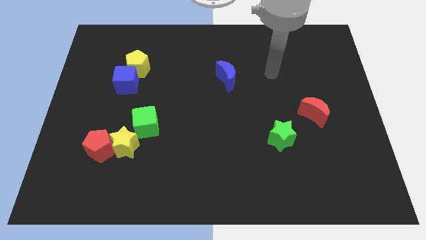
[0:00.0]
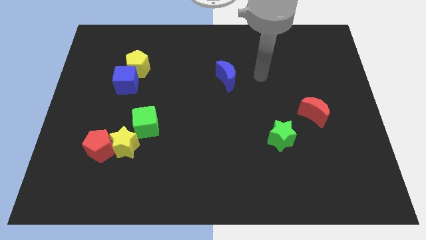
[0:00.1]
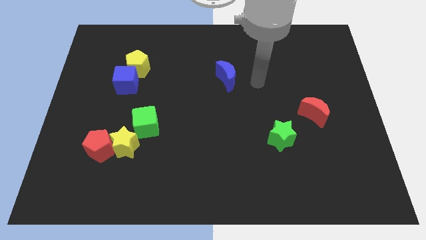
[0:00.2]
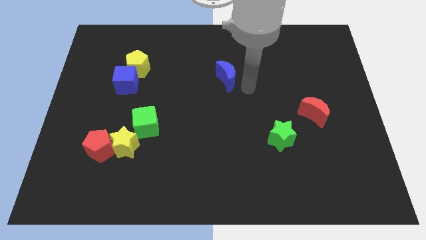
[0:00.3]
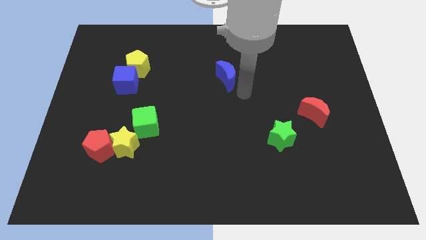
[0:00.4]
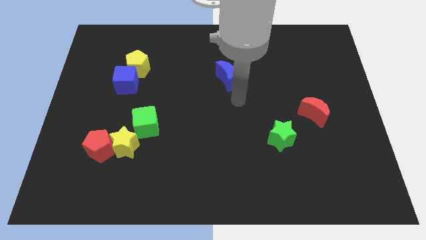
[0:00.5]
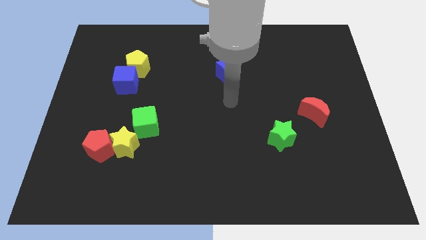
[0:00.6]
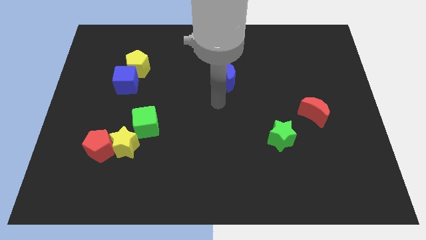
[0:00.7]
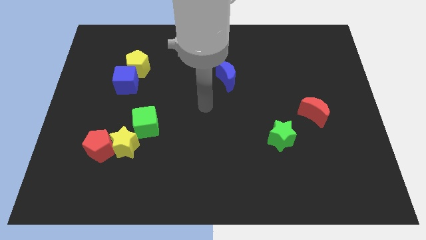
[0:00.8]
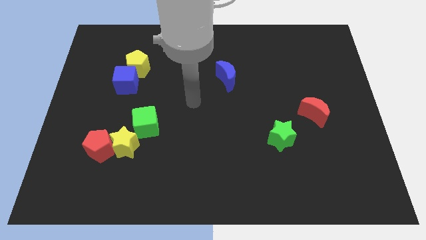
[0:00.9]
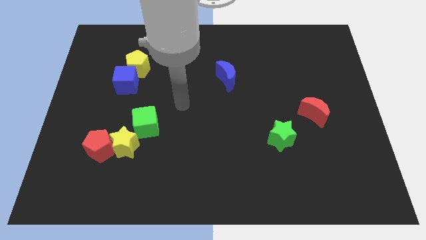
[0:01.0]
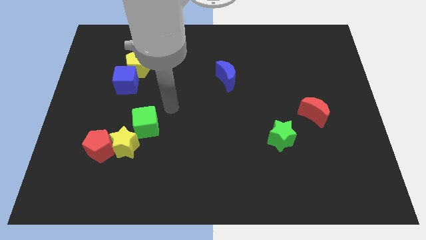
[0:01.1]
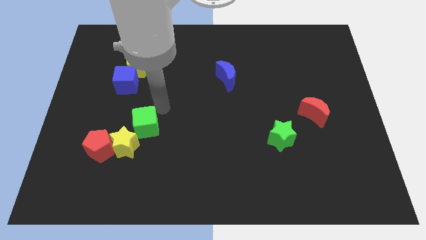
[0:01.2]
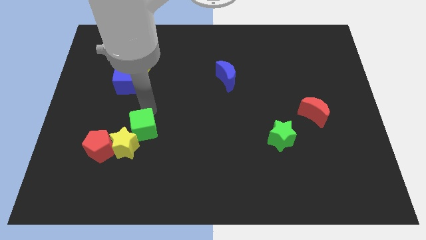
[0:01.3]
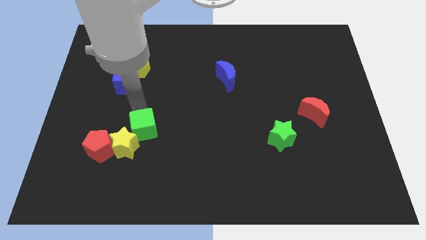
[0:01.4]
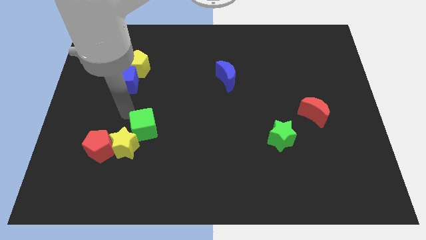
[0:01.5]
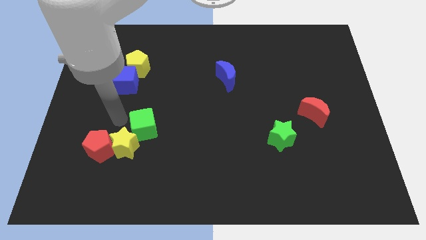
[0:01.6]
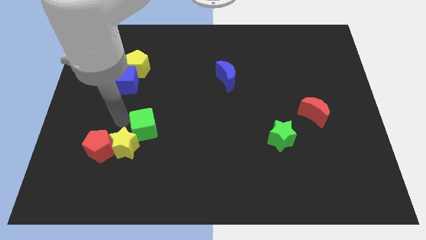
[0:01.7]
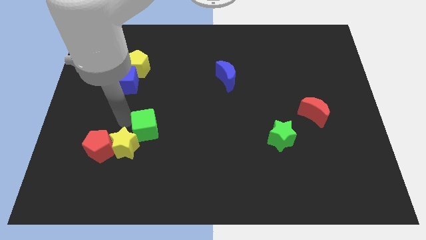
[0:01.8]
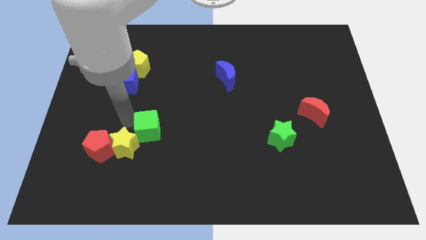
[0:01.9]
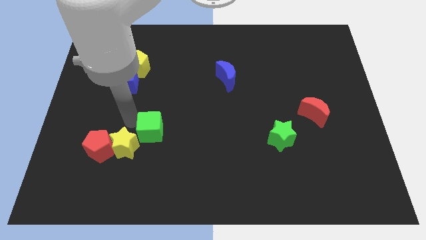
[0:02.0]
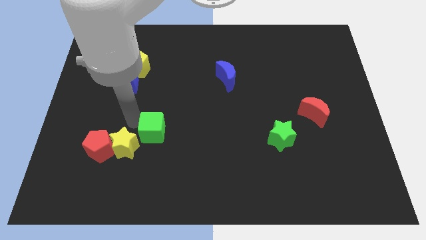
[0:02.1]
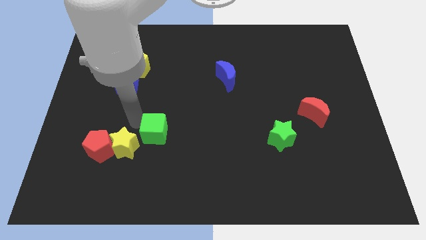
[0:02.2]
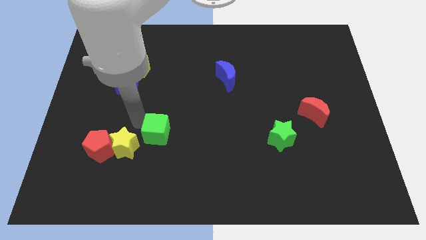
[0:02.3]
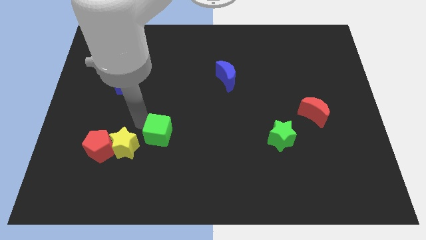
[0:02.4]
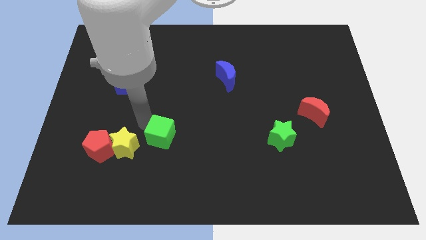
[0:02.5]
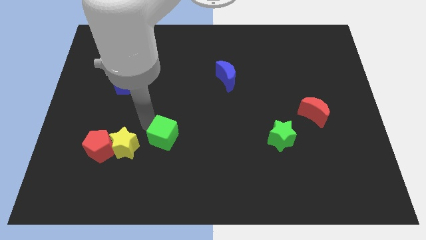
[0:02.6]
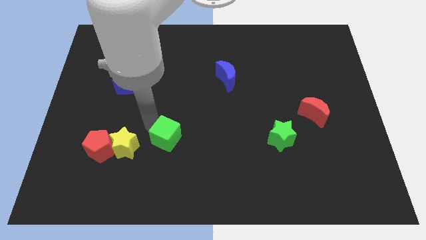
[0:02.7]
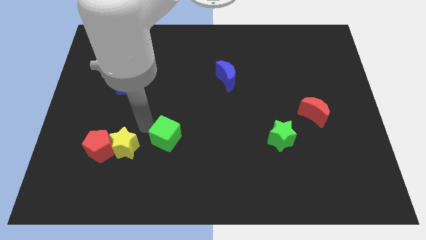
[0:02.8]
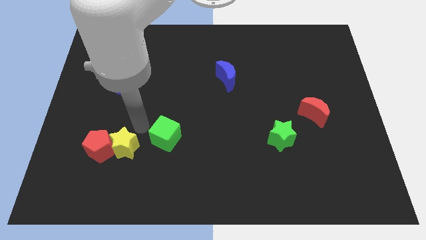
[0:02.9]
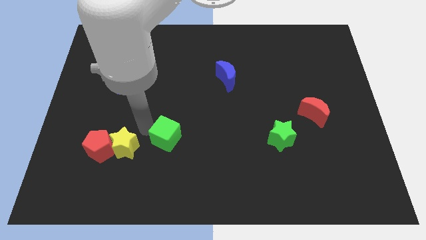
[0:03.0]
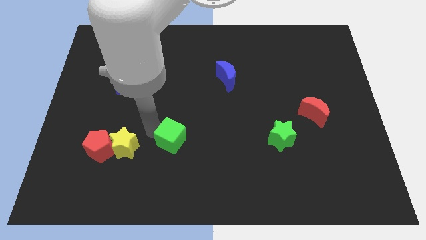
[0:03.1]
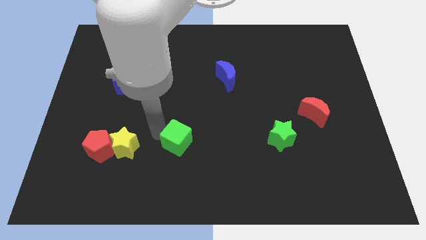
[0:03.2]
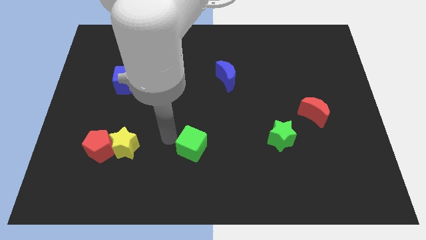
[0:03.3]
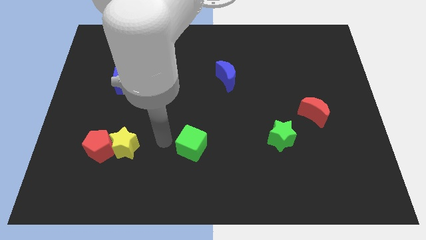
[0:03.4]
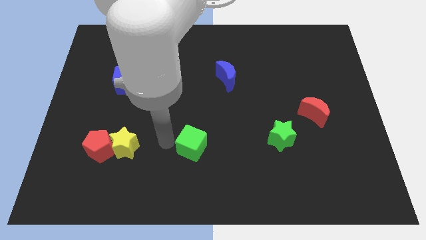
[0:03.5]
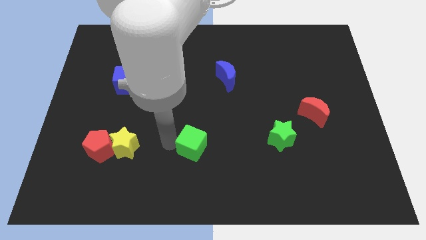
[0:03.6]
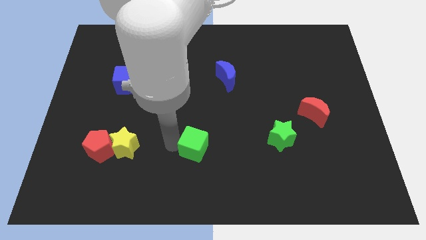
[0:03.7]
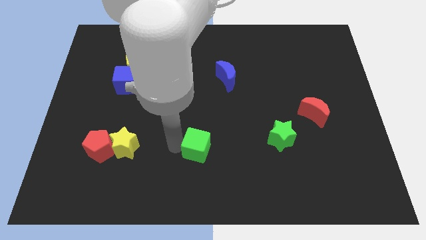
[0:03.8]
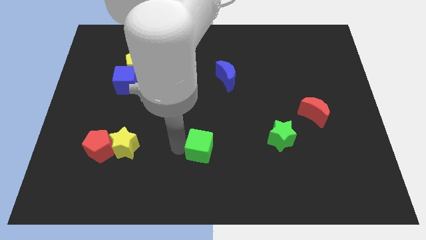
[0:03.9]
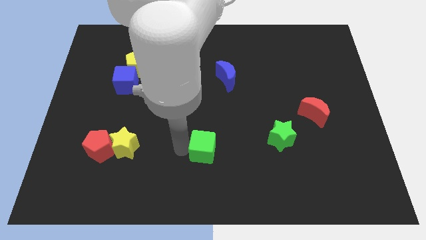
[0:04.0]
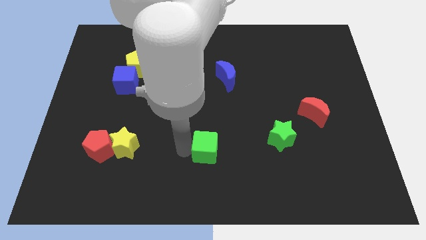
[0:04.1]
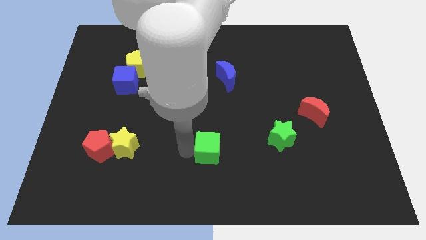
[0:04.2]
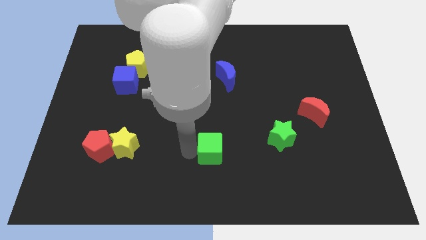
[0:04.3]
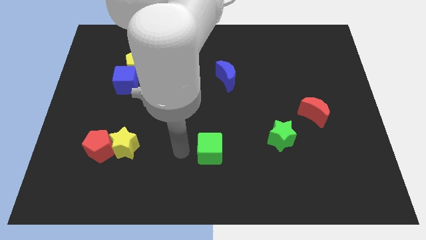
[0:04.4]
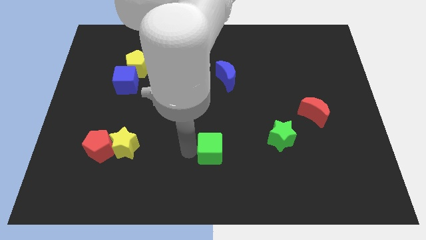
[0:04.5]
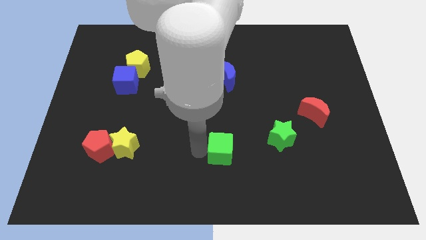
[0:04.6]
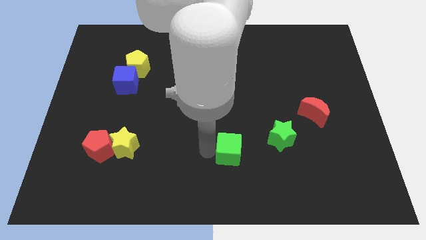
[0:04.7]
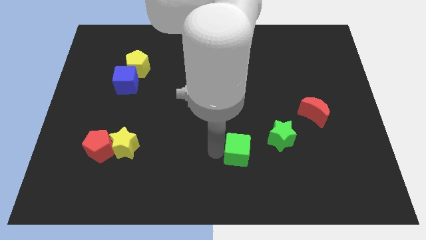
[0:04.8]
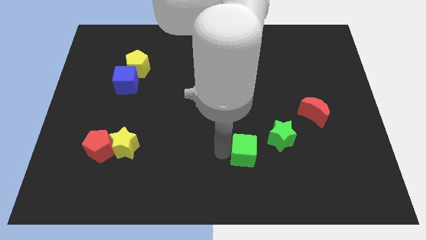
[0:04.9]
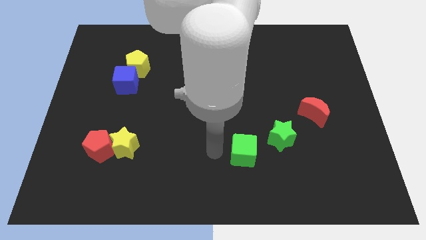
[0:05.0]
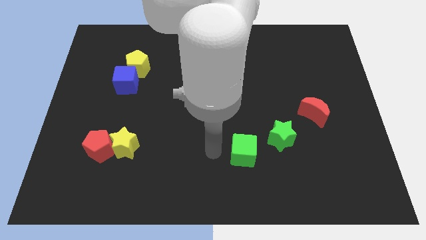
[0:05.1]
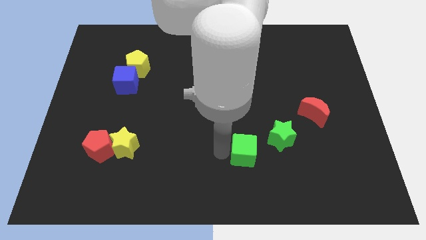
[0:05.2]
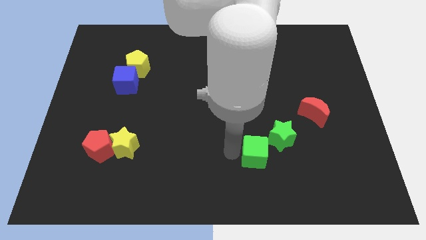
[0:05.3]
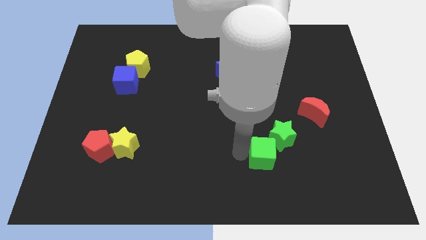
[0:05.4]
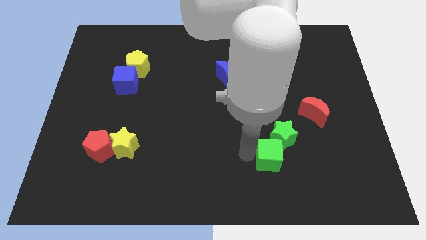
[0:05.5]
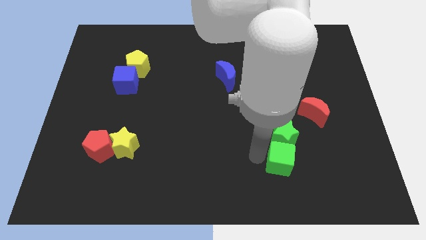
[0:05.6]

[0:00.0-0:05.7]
put the green cube diagonally down and to the right of the green star

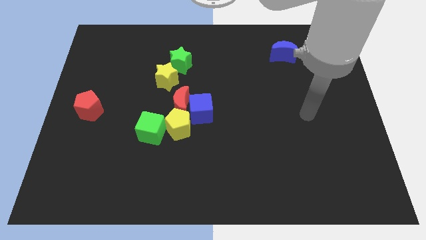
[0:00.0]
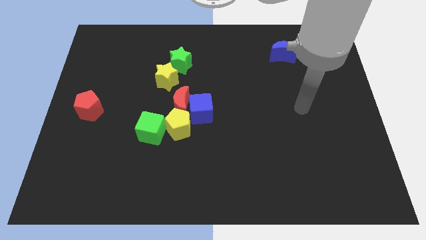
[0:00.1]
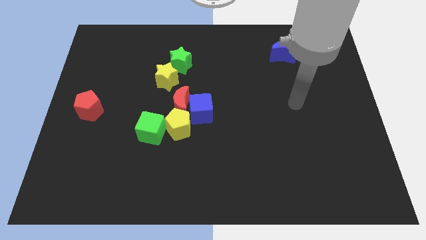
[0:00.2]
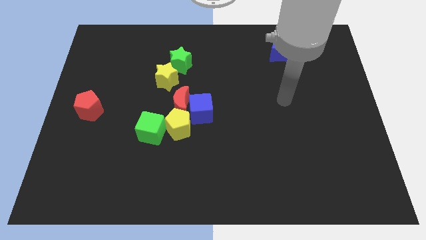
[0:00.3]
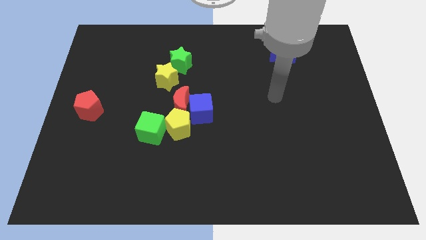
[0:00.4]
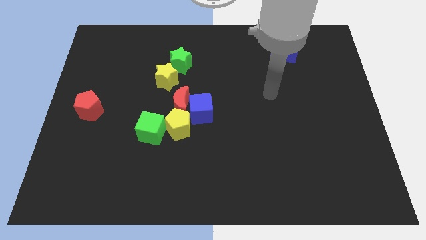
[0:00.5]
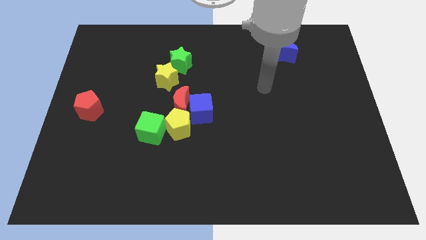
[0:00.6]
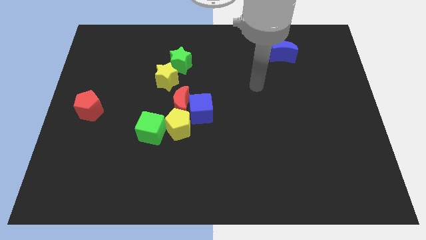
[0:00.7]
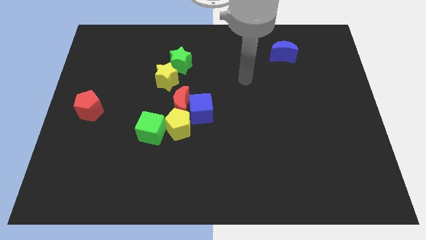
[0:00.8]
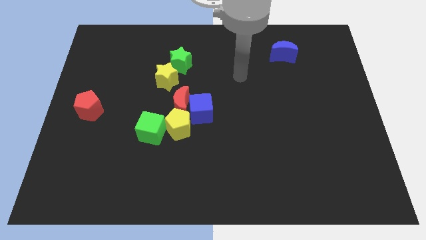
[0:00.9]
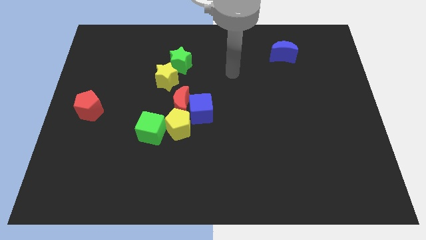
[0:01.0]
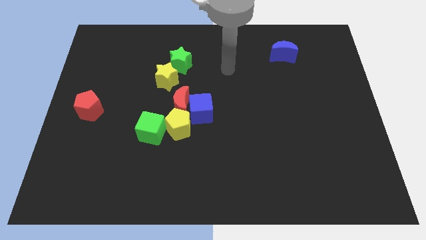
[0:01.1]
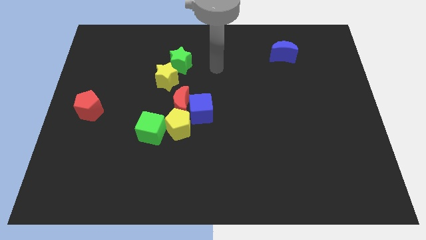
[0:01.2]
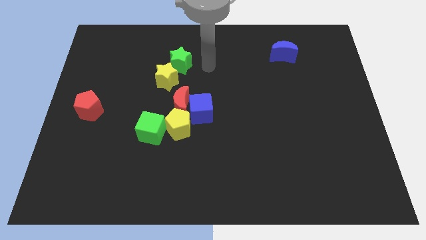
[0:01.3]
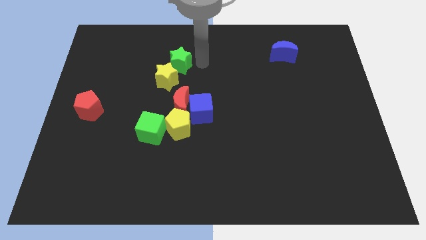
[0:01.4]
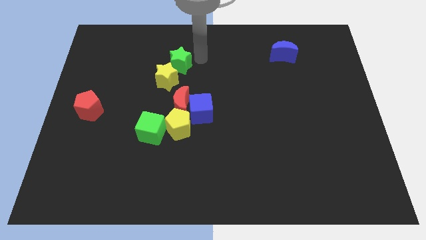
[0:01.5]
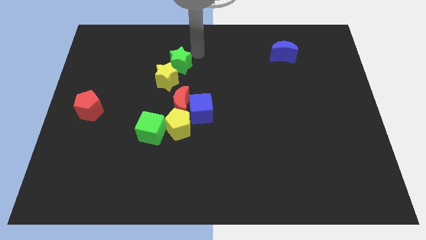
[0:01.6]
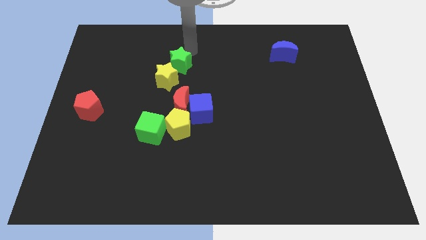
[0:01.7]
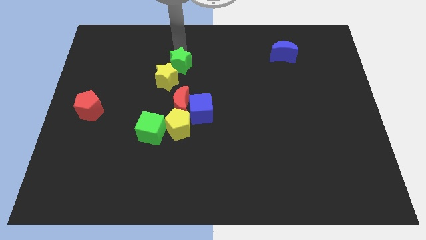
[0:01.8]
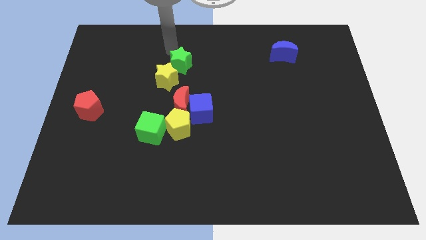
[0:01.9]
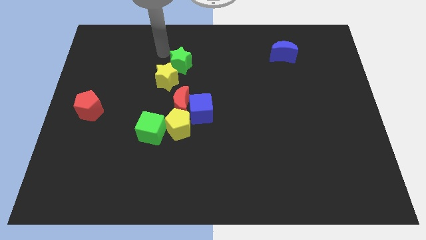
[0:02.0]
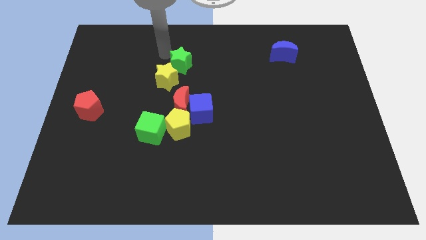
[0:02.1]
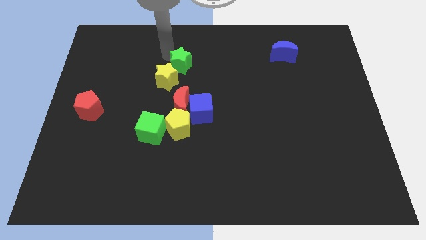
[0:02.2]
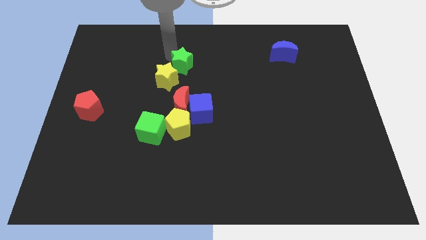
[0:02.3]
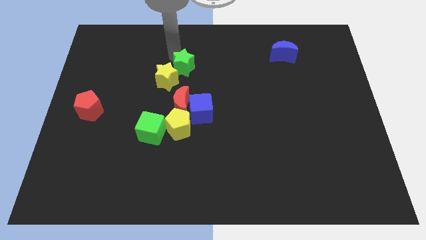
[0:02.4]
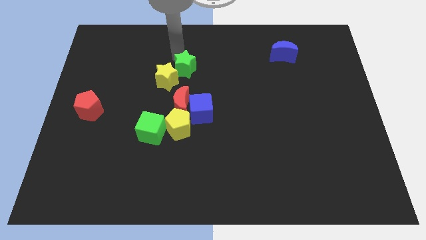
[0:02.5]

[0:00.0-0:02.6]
put the green star just right of the yellow star
